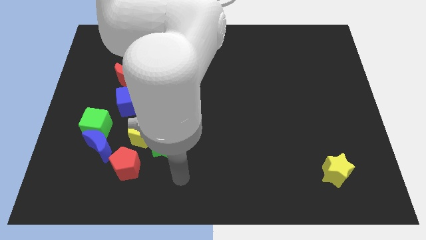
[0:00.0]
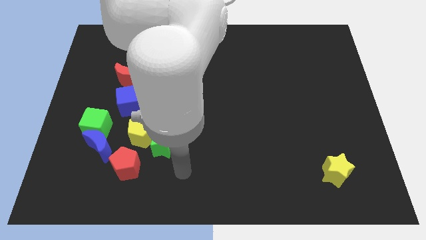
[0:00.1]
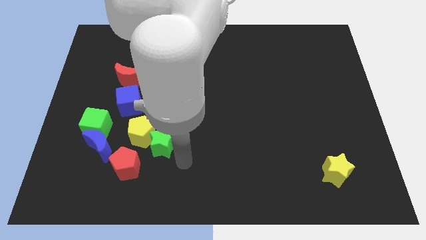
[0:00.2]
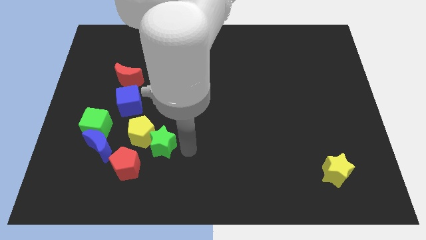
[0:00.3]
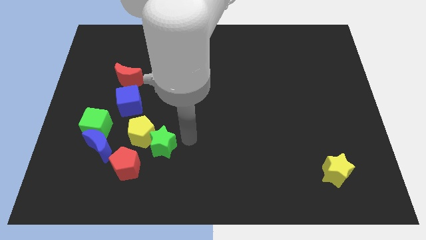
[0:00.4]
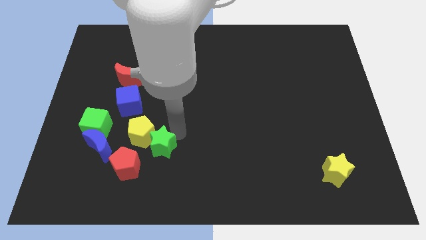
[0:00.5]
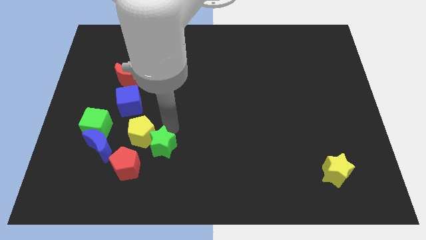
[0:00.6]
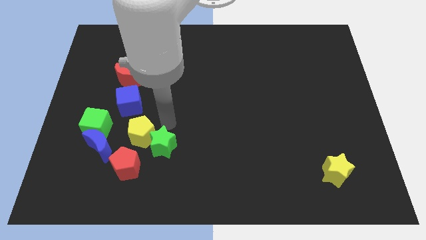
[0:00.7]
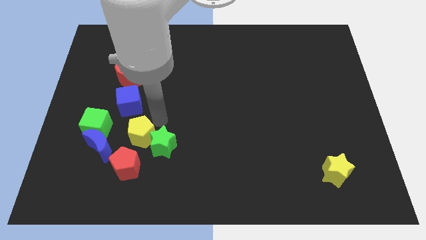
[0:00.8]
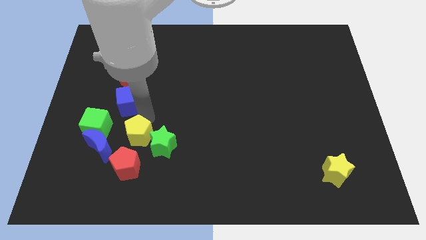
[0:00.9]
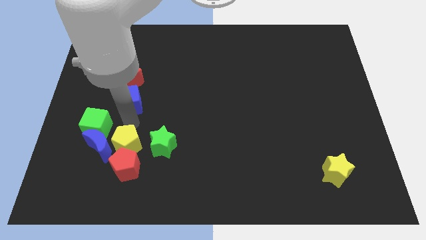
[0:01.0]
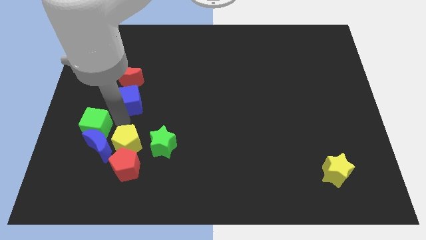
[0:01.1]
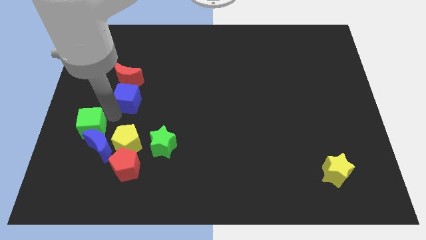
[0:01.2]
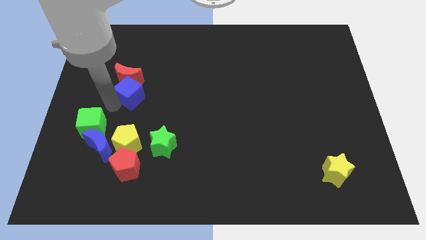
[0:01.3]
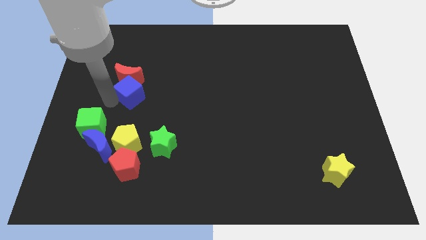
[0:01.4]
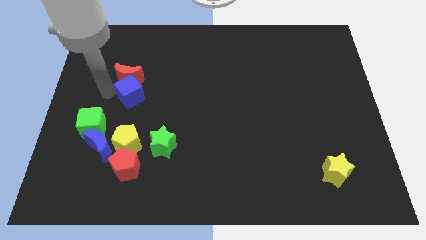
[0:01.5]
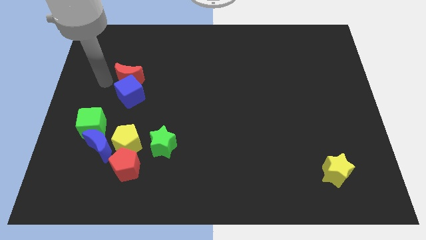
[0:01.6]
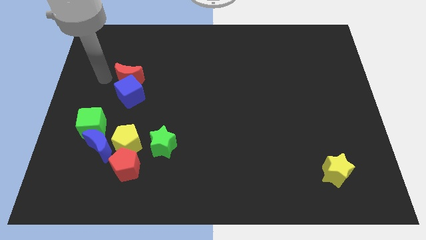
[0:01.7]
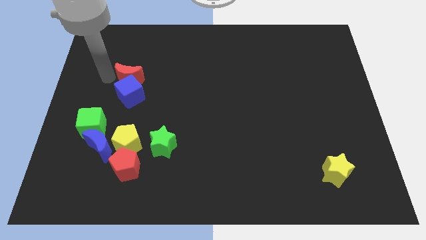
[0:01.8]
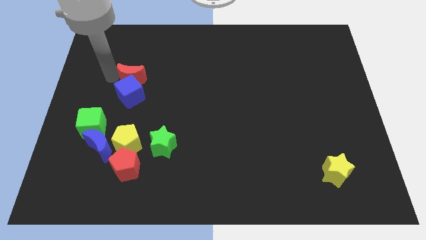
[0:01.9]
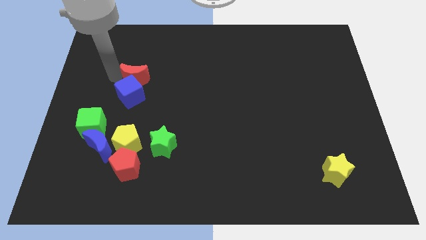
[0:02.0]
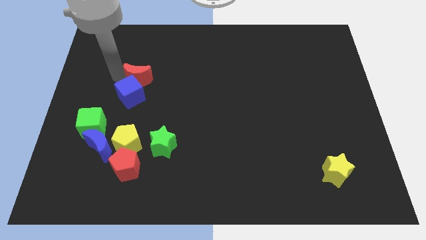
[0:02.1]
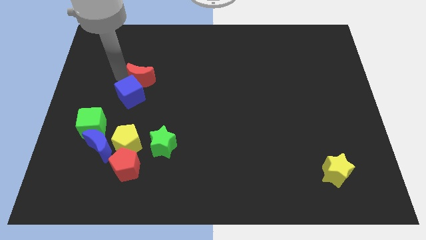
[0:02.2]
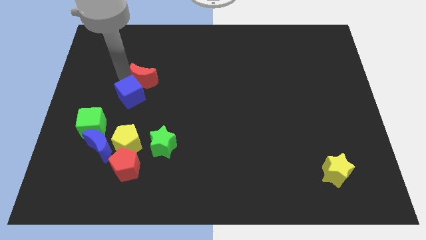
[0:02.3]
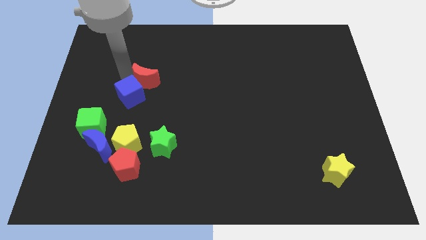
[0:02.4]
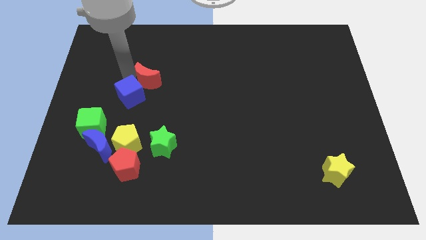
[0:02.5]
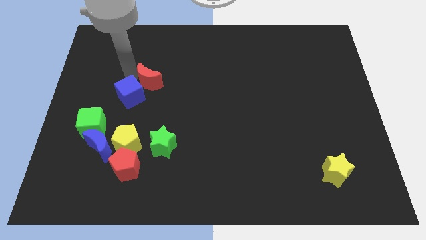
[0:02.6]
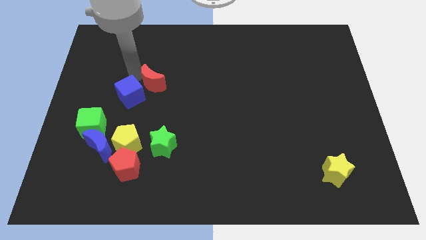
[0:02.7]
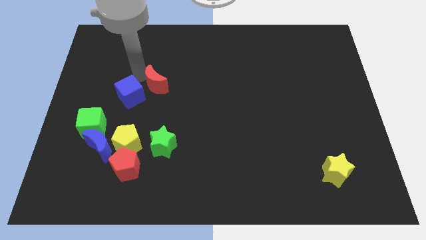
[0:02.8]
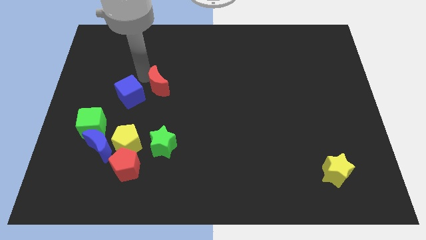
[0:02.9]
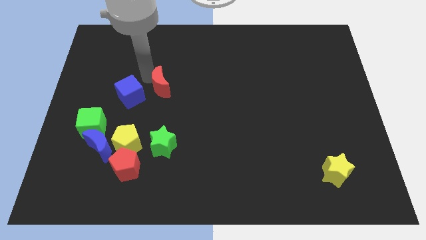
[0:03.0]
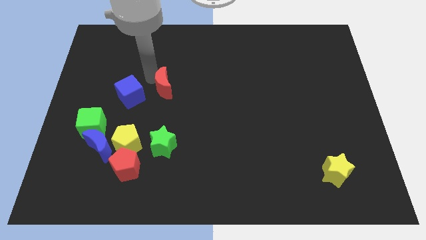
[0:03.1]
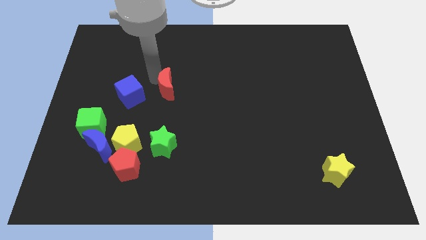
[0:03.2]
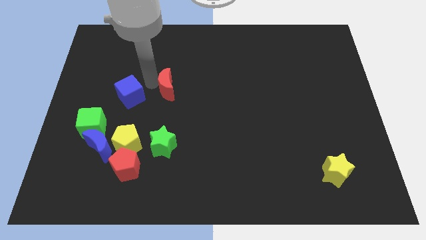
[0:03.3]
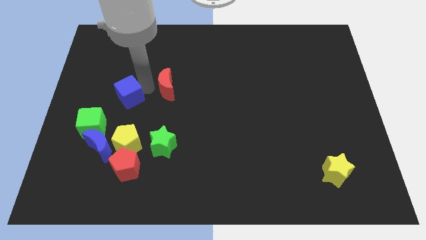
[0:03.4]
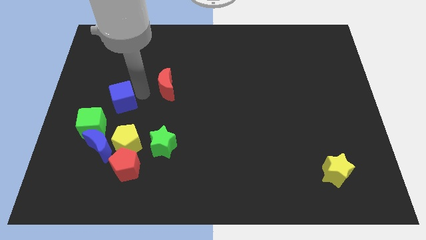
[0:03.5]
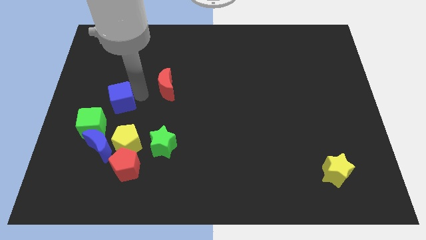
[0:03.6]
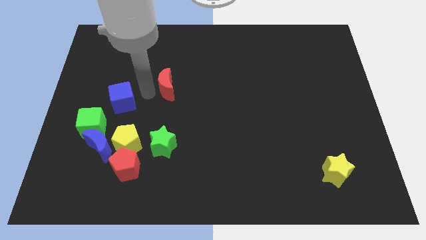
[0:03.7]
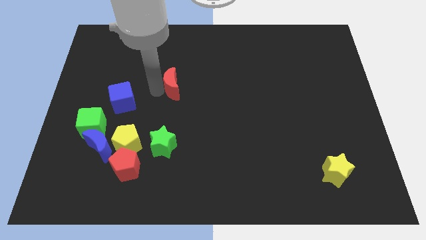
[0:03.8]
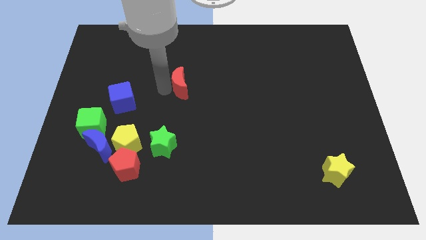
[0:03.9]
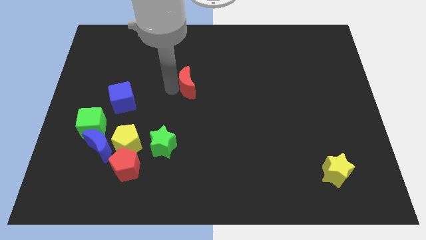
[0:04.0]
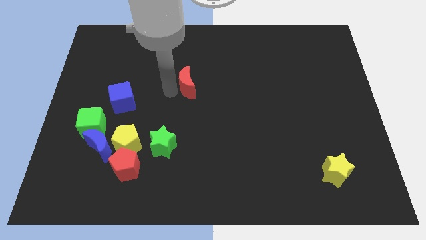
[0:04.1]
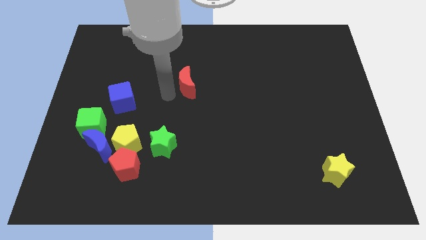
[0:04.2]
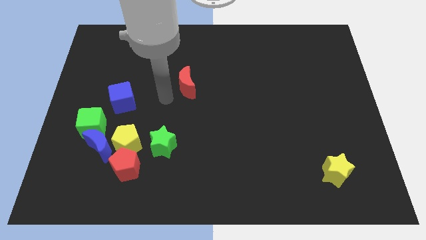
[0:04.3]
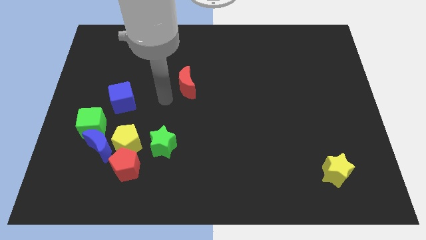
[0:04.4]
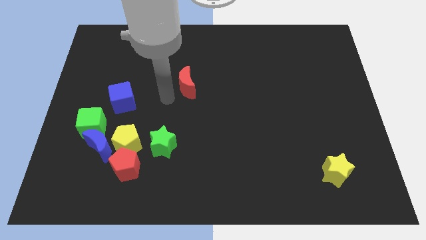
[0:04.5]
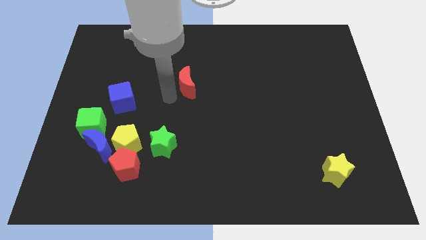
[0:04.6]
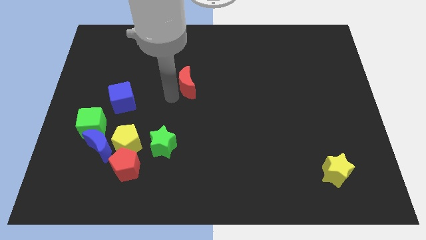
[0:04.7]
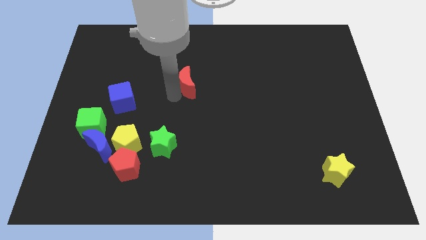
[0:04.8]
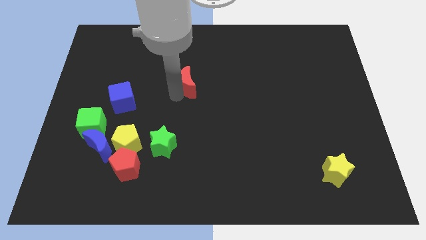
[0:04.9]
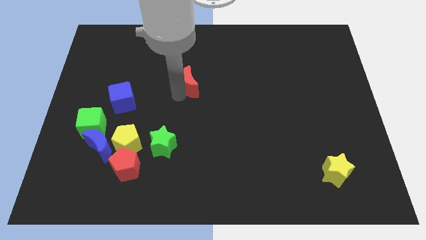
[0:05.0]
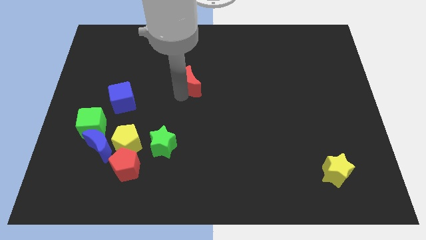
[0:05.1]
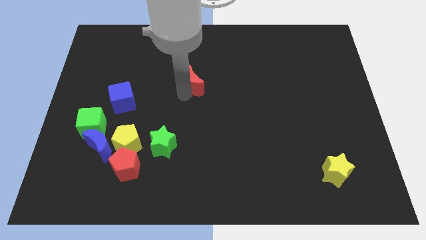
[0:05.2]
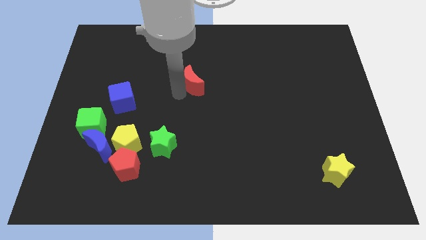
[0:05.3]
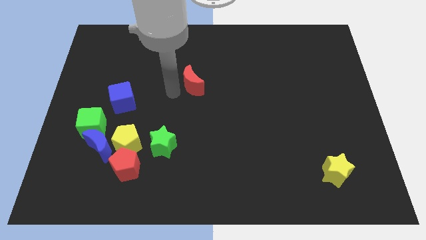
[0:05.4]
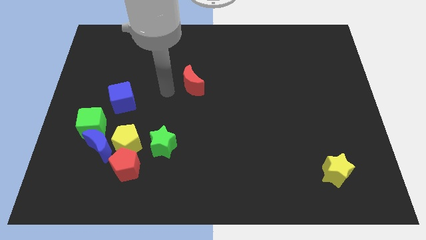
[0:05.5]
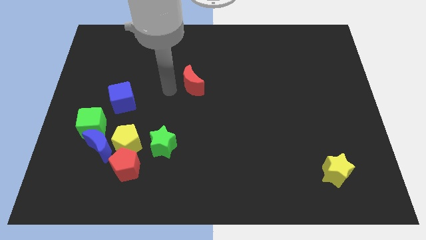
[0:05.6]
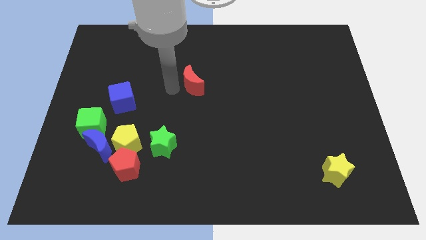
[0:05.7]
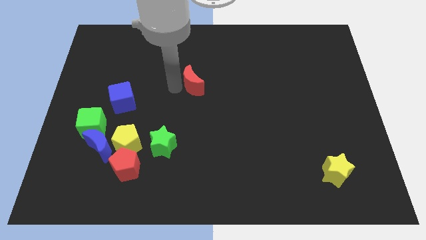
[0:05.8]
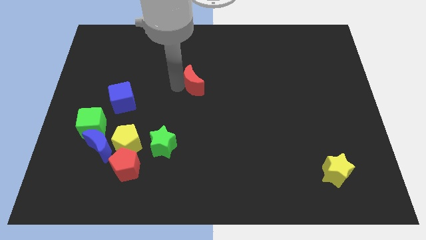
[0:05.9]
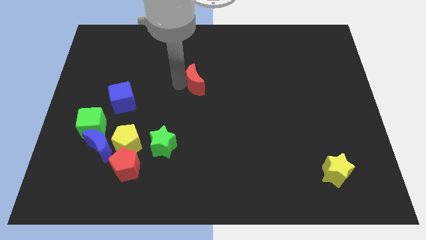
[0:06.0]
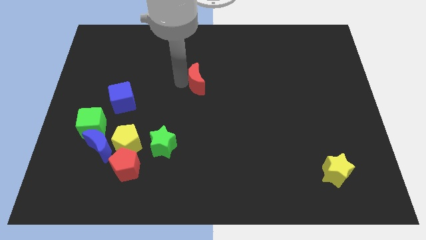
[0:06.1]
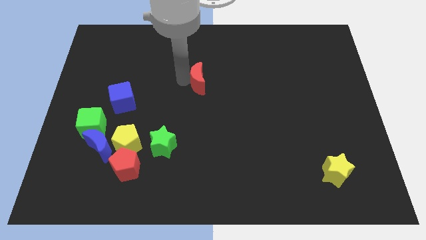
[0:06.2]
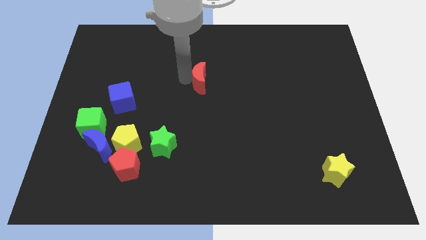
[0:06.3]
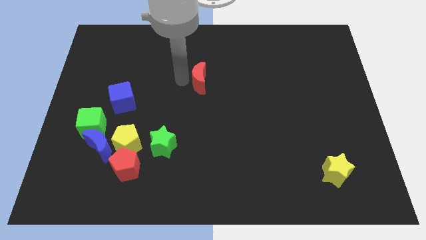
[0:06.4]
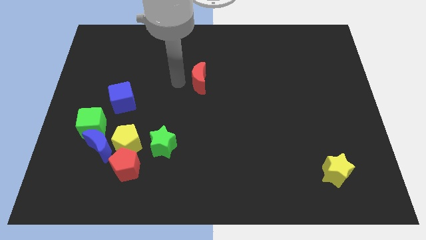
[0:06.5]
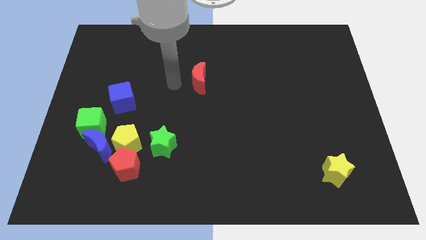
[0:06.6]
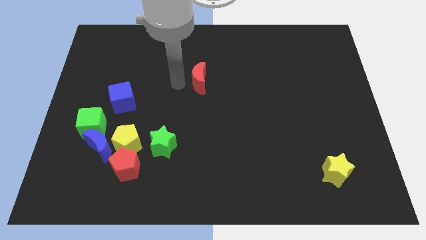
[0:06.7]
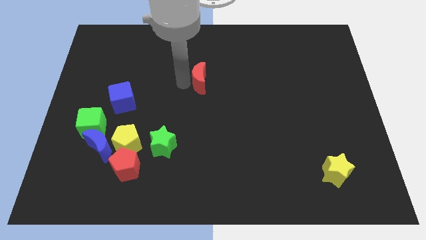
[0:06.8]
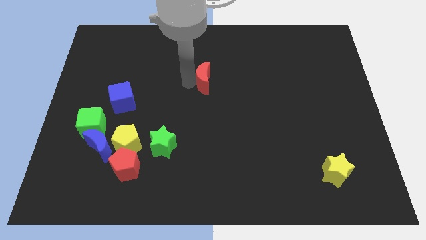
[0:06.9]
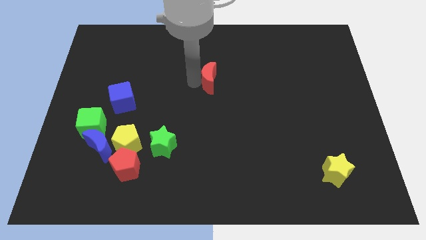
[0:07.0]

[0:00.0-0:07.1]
move the red moon right

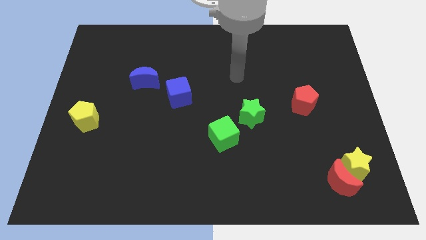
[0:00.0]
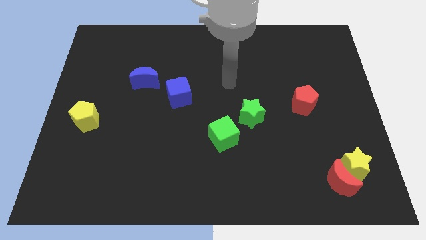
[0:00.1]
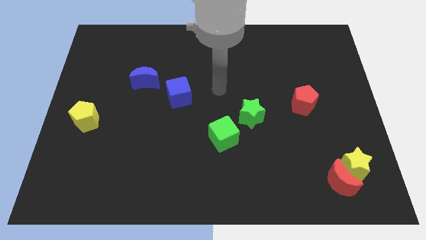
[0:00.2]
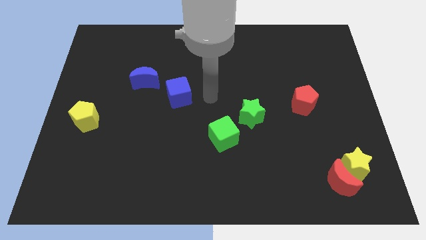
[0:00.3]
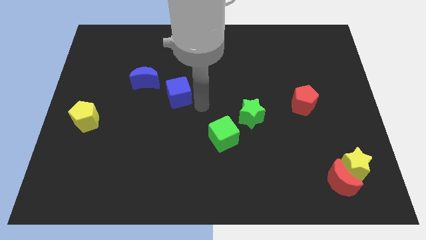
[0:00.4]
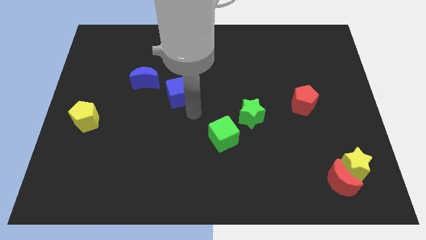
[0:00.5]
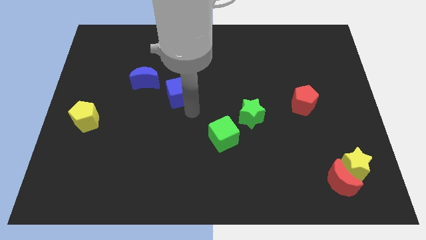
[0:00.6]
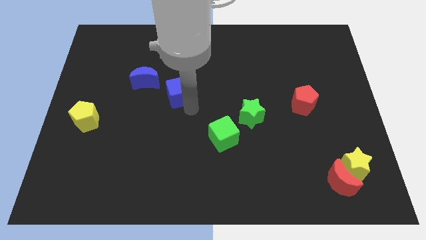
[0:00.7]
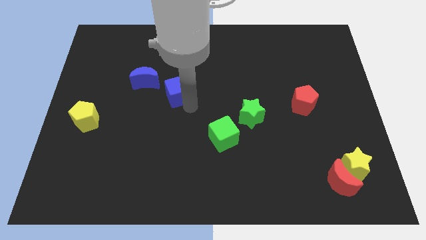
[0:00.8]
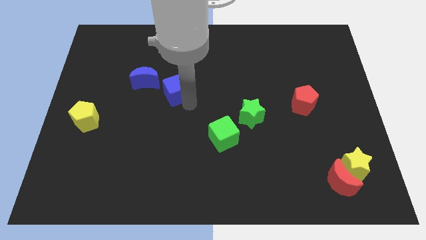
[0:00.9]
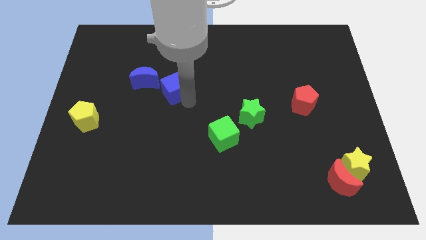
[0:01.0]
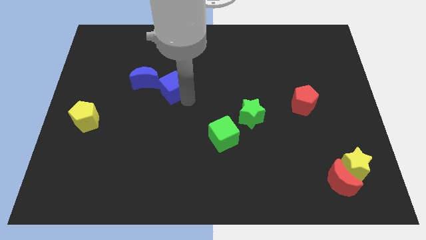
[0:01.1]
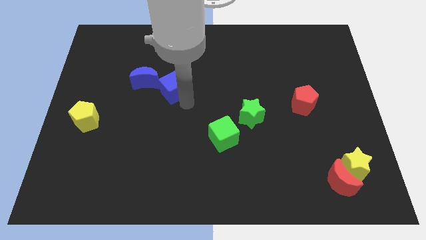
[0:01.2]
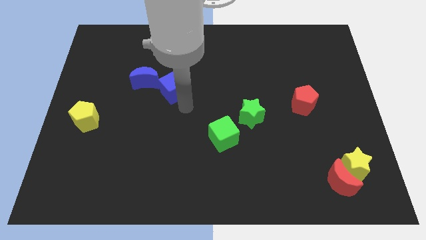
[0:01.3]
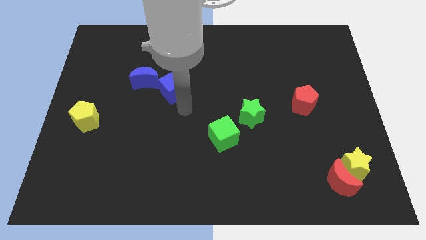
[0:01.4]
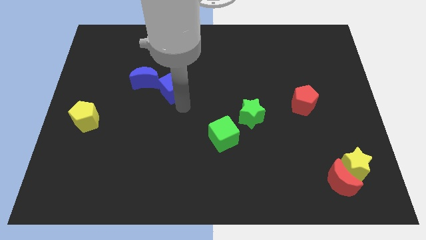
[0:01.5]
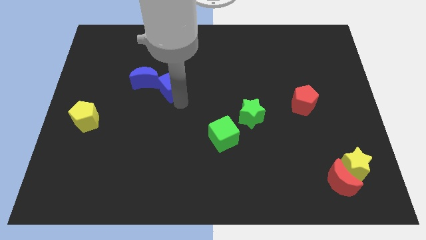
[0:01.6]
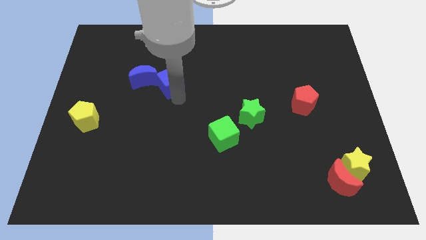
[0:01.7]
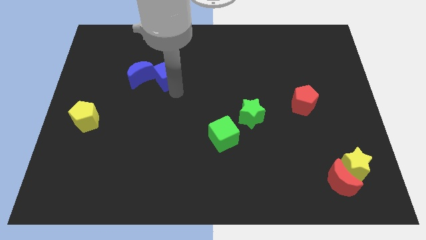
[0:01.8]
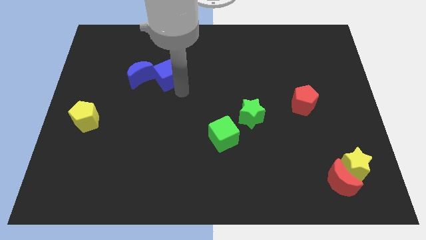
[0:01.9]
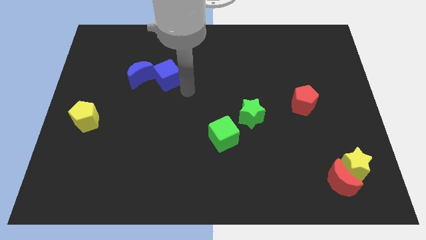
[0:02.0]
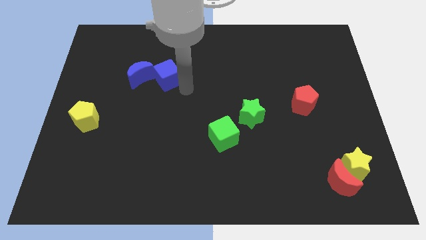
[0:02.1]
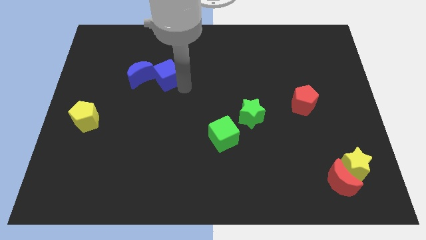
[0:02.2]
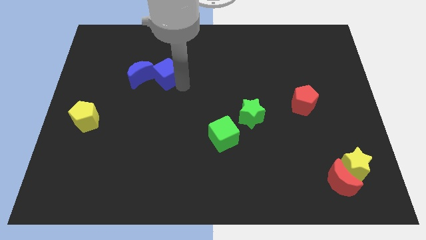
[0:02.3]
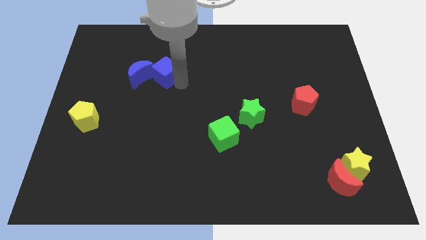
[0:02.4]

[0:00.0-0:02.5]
move the blue cube diagonally up and left slightly
